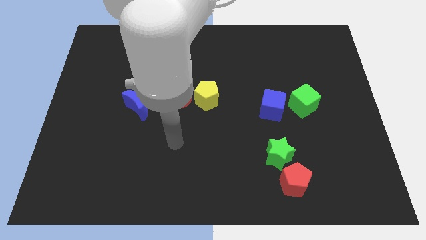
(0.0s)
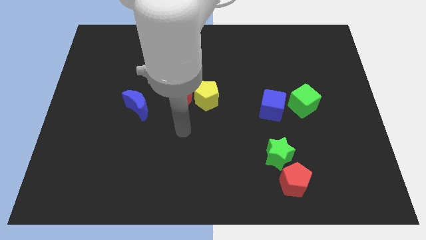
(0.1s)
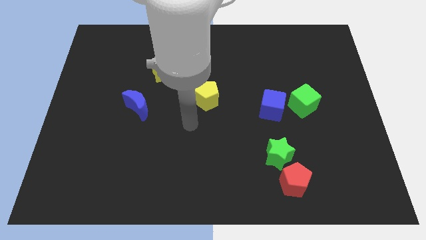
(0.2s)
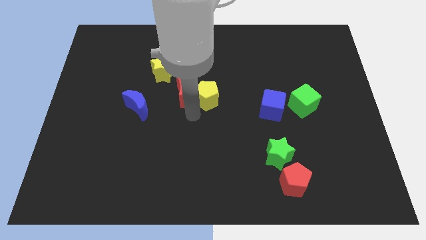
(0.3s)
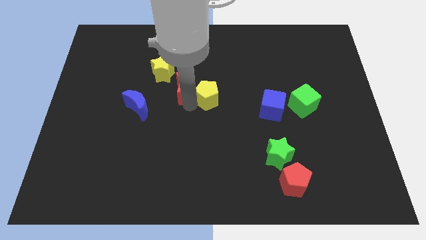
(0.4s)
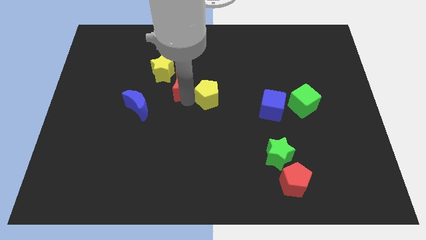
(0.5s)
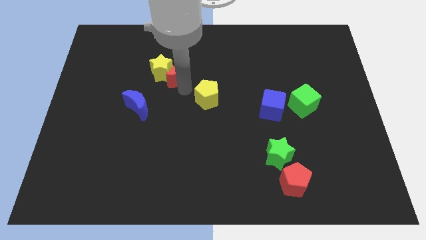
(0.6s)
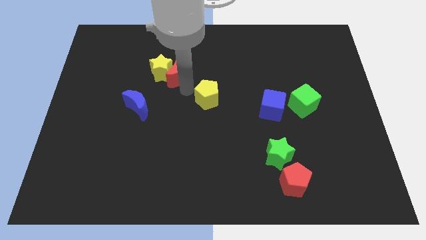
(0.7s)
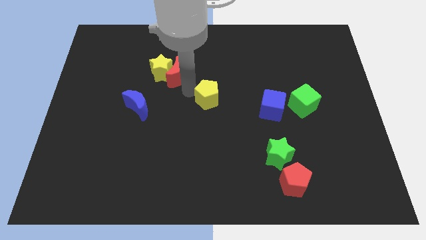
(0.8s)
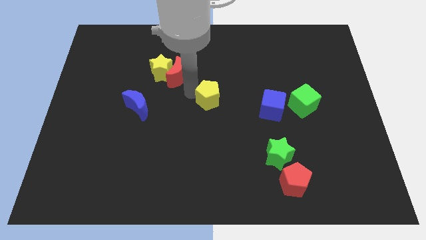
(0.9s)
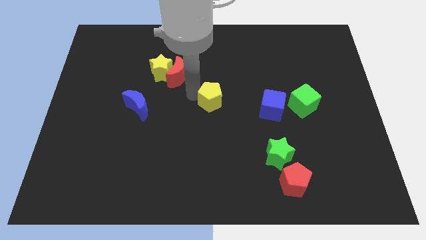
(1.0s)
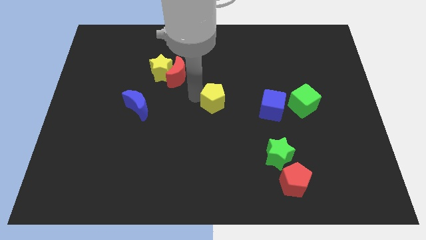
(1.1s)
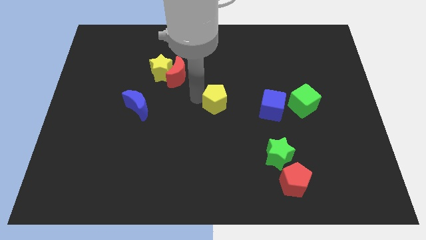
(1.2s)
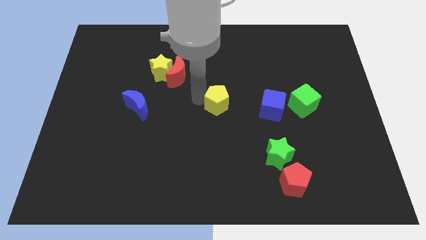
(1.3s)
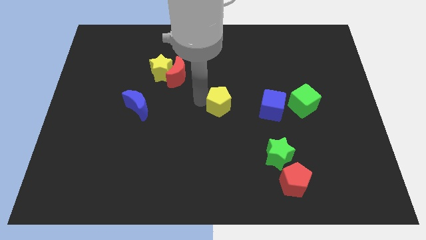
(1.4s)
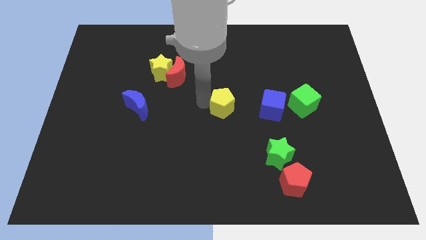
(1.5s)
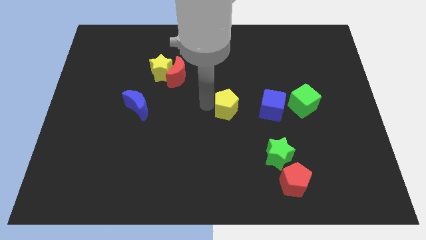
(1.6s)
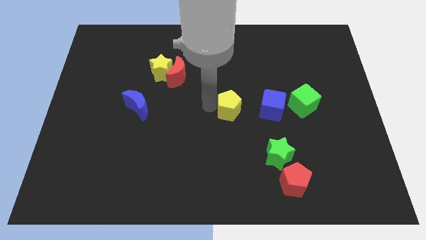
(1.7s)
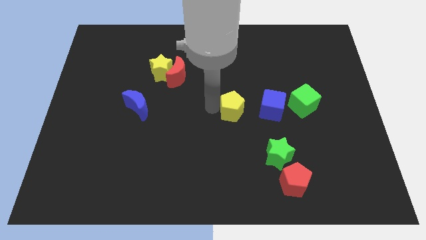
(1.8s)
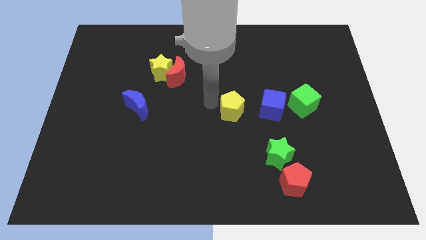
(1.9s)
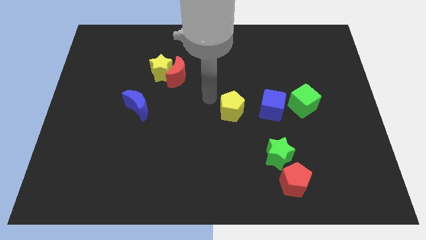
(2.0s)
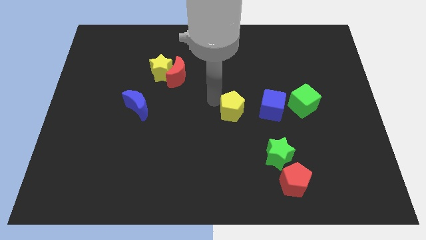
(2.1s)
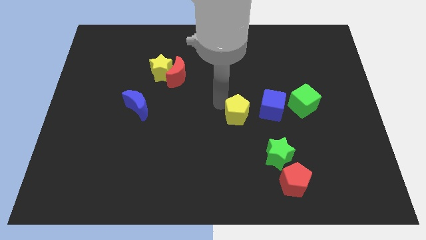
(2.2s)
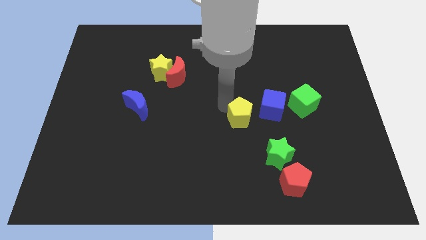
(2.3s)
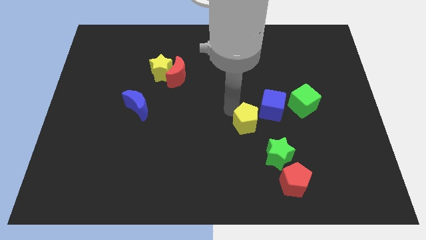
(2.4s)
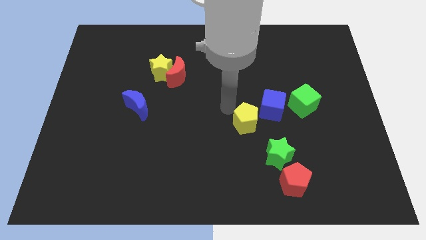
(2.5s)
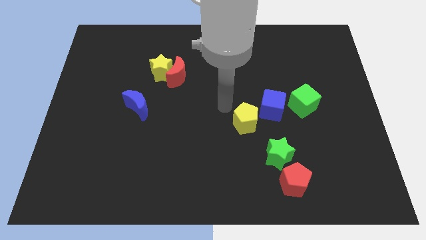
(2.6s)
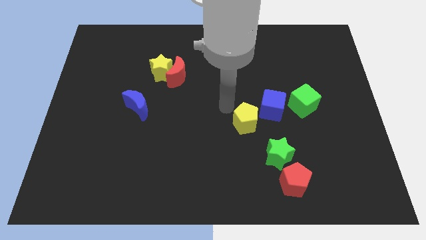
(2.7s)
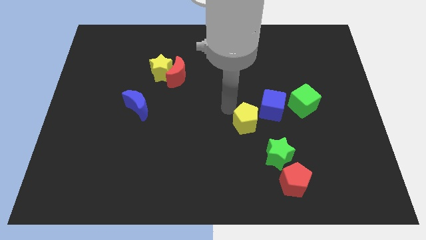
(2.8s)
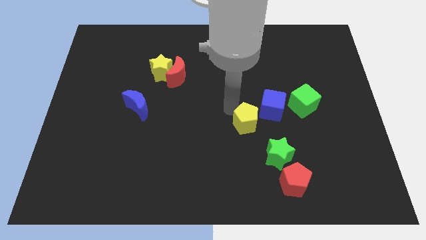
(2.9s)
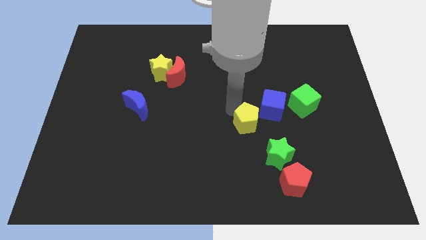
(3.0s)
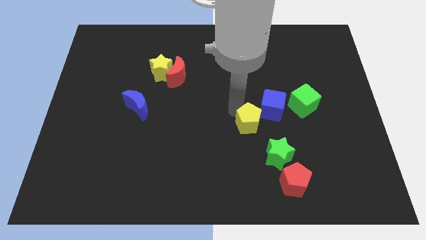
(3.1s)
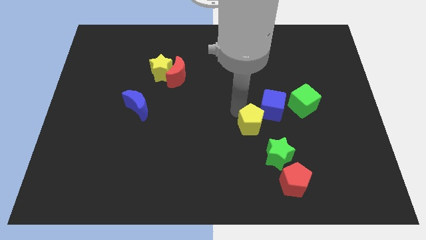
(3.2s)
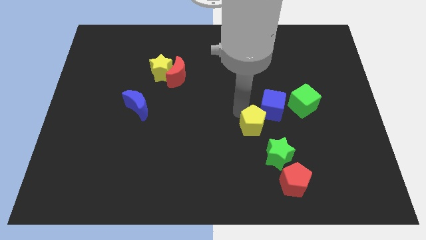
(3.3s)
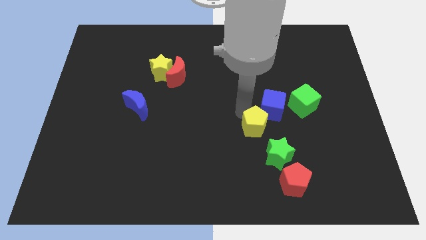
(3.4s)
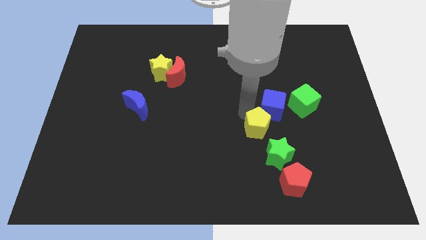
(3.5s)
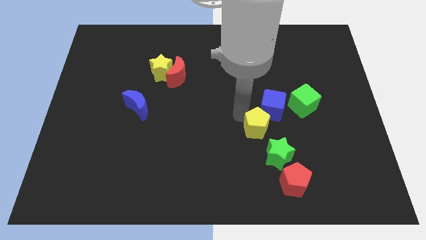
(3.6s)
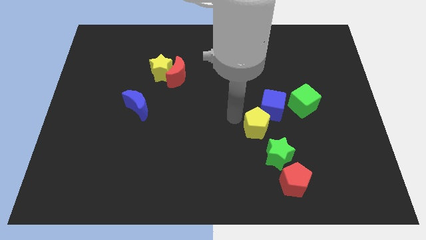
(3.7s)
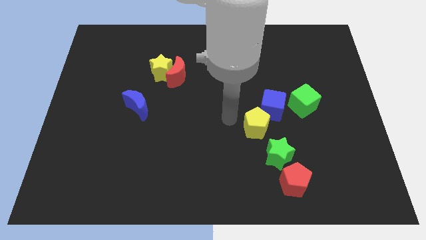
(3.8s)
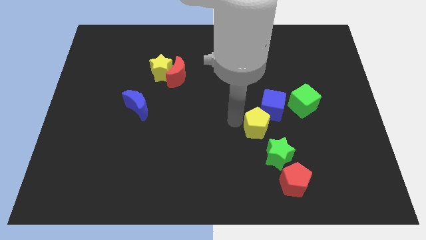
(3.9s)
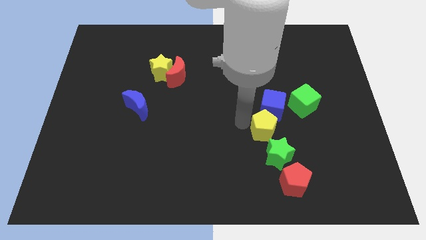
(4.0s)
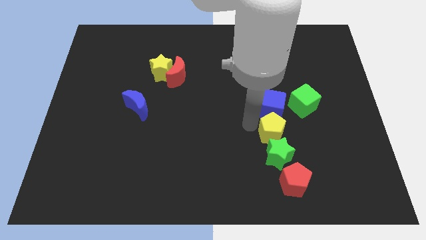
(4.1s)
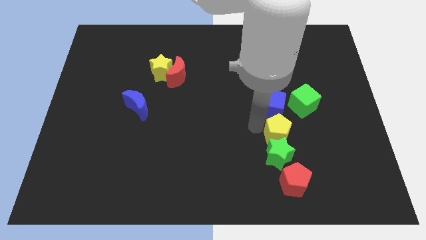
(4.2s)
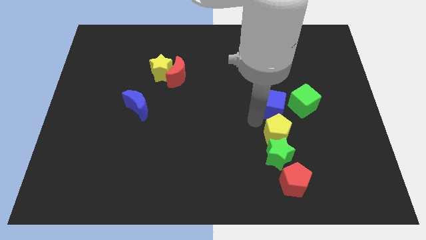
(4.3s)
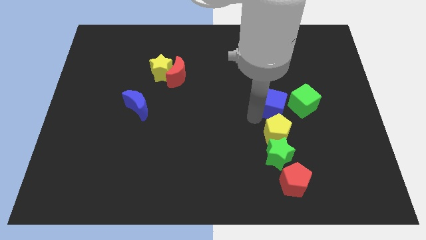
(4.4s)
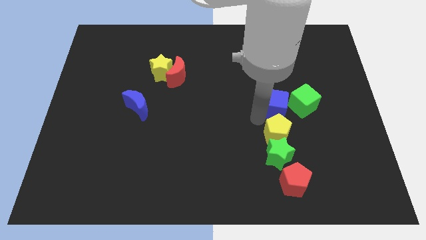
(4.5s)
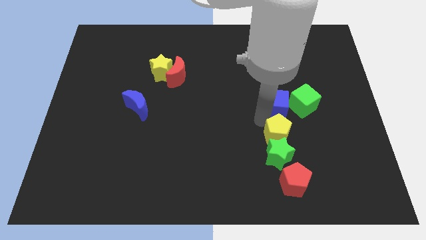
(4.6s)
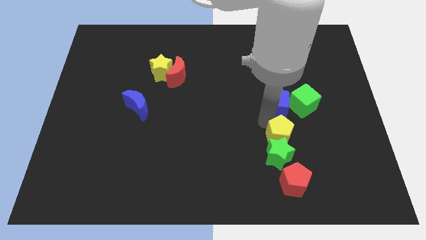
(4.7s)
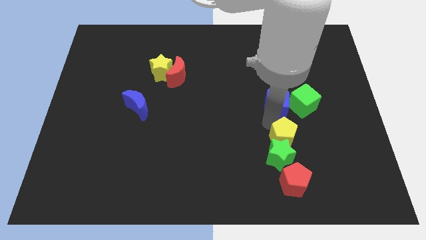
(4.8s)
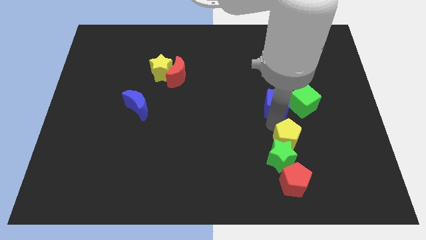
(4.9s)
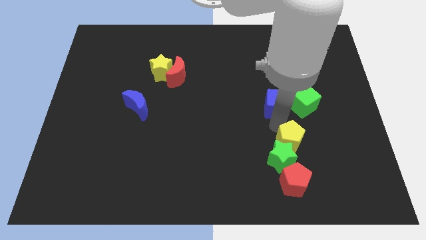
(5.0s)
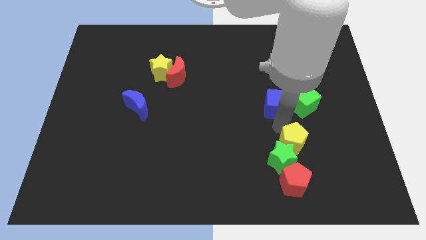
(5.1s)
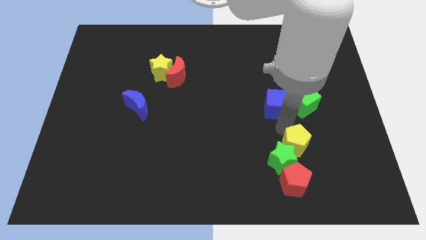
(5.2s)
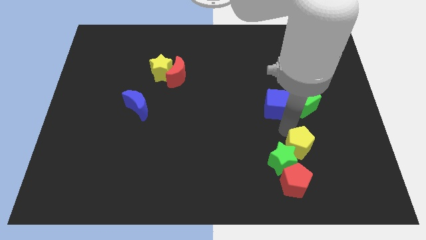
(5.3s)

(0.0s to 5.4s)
push the yellow pentagon to the top right of the red pentagon

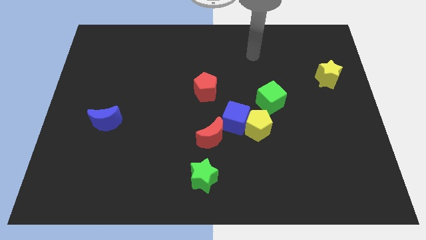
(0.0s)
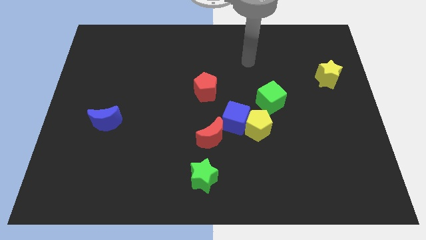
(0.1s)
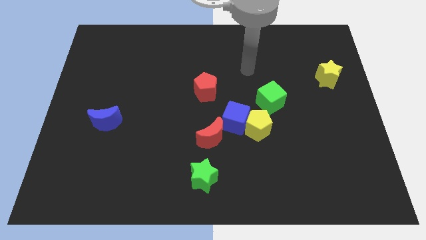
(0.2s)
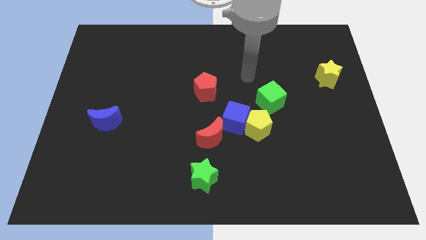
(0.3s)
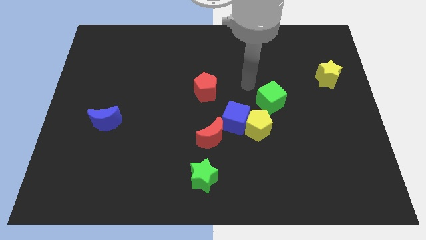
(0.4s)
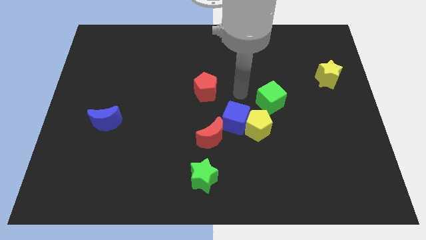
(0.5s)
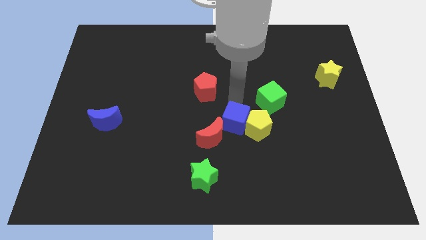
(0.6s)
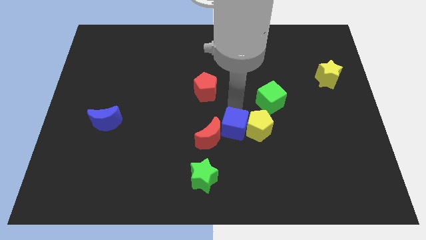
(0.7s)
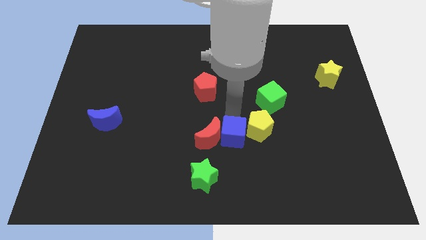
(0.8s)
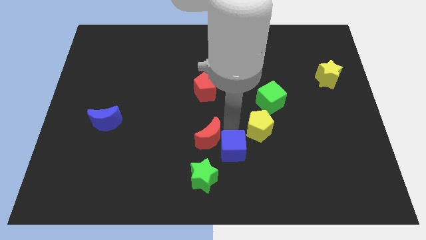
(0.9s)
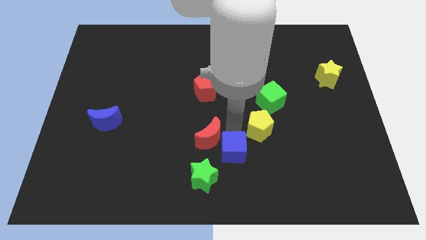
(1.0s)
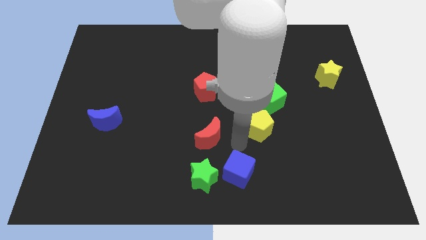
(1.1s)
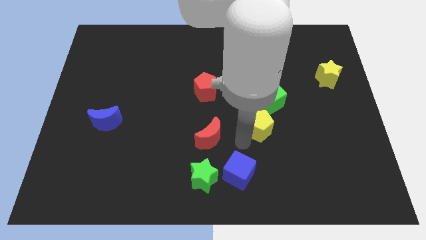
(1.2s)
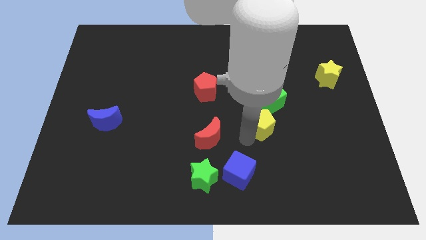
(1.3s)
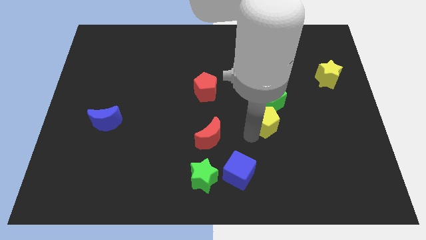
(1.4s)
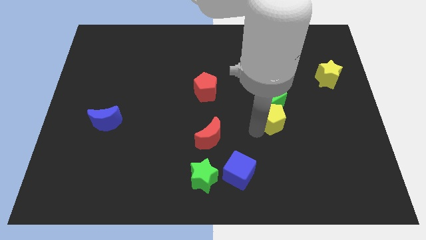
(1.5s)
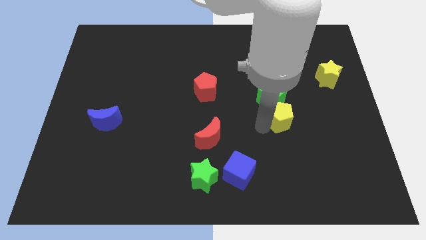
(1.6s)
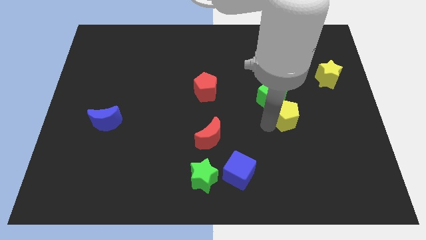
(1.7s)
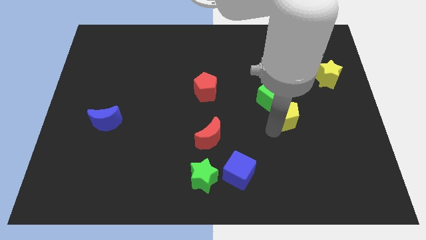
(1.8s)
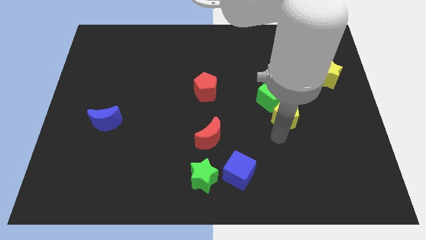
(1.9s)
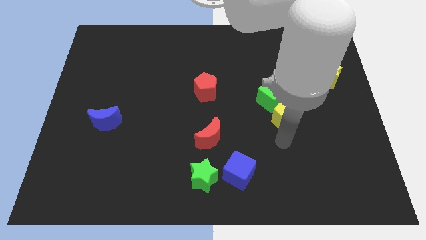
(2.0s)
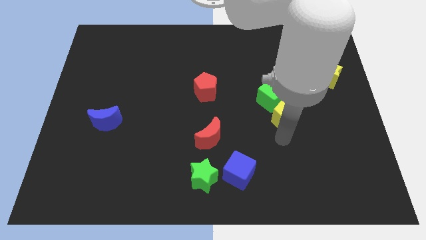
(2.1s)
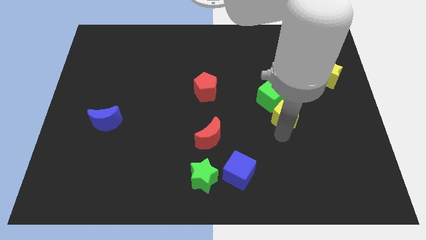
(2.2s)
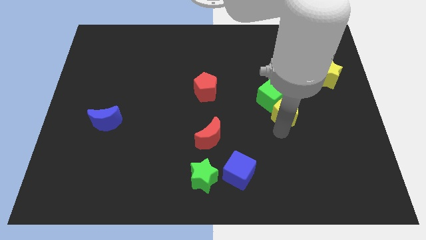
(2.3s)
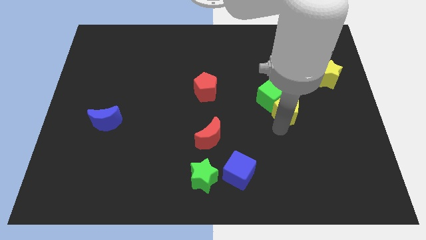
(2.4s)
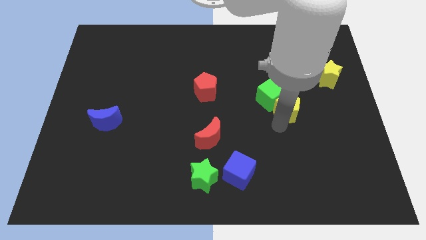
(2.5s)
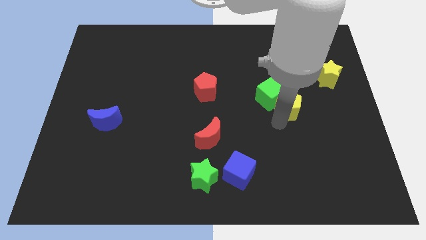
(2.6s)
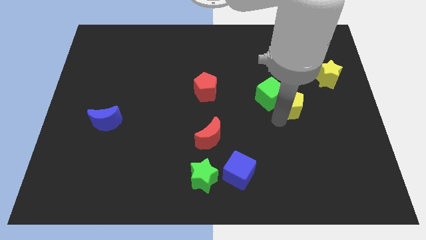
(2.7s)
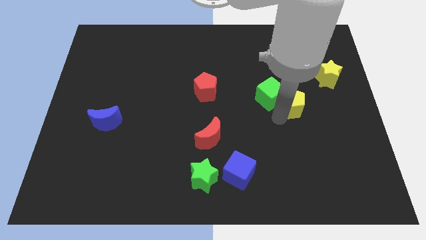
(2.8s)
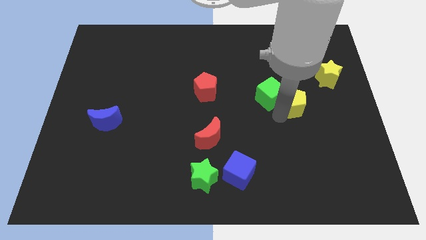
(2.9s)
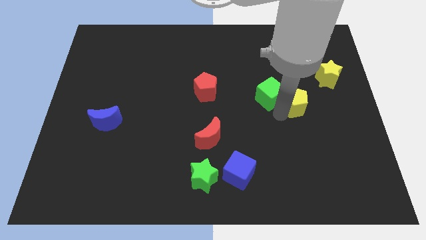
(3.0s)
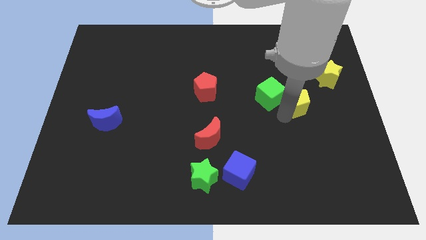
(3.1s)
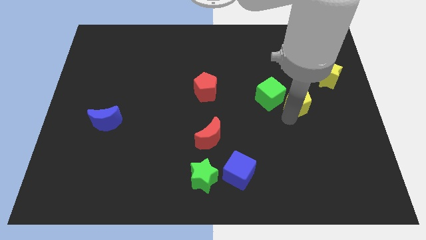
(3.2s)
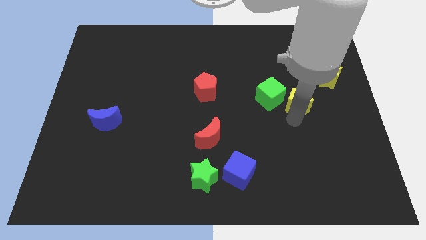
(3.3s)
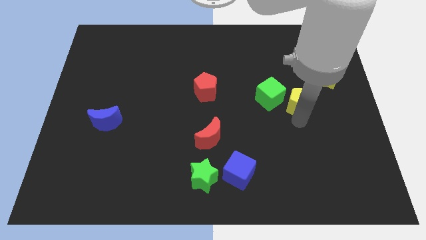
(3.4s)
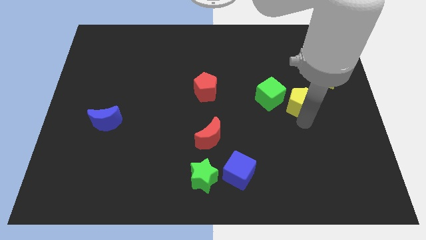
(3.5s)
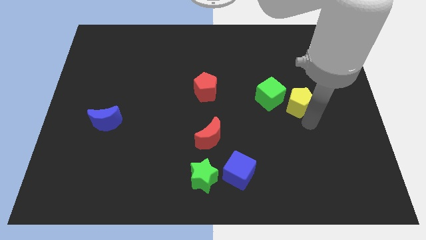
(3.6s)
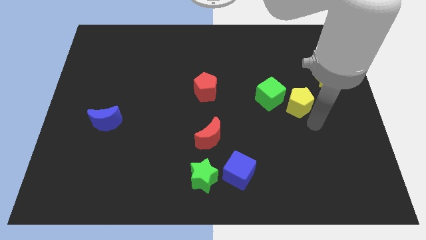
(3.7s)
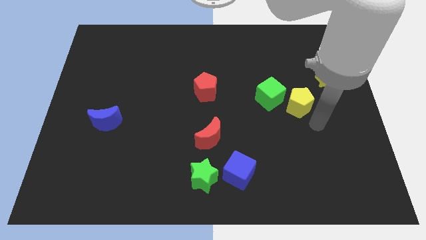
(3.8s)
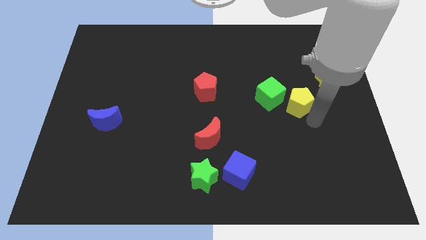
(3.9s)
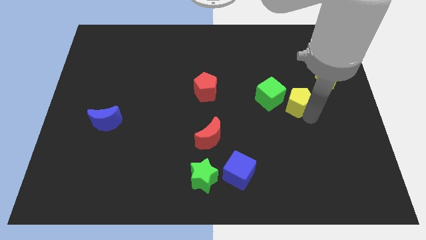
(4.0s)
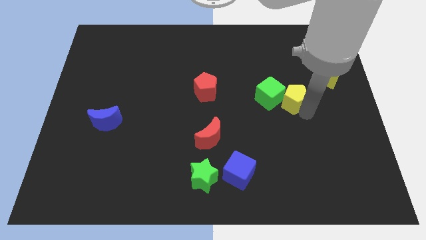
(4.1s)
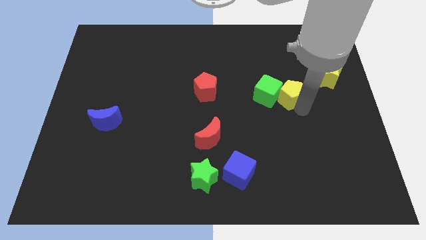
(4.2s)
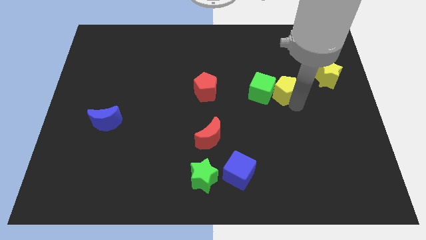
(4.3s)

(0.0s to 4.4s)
move the yellow pentagon left of the yellow star
